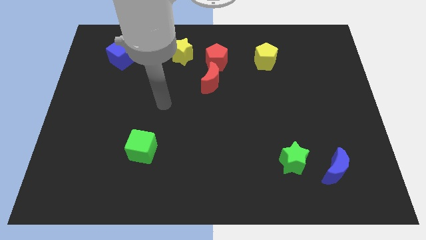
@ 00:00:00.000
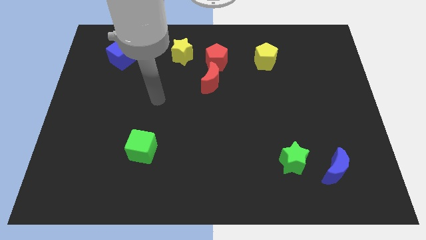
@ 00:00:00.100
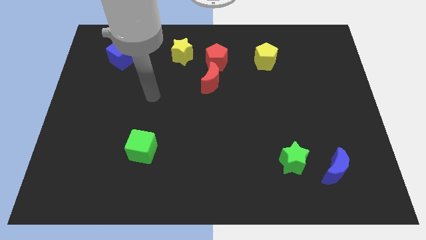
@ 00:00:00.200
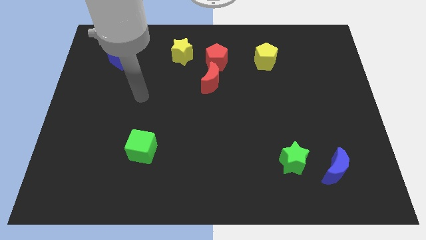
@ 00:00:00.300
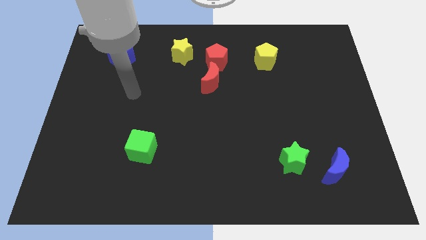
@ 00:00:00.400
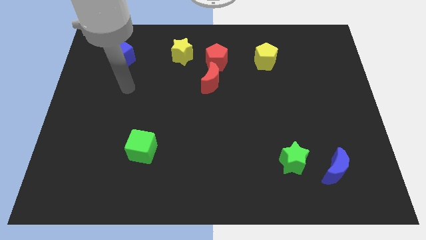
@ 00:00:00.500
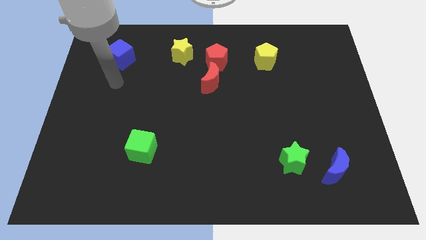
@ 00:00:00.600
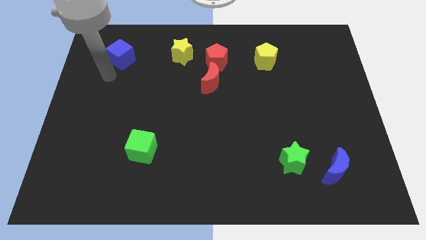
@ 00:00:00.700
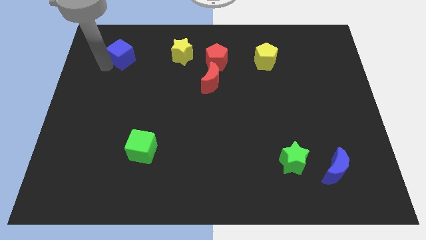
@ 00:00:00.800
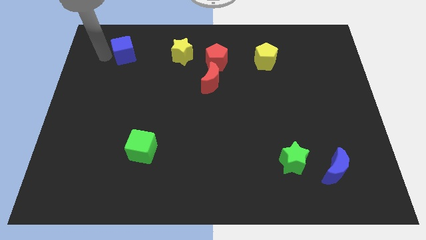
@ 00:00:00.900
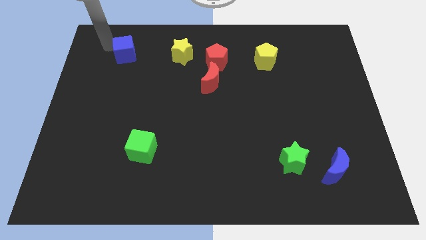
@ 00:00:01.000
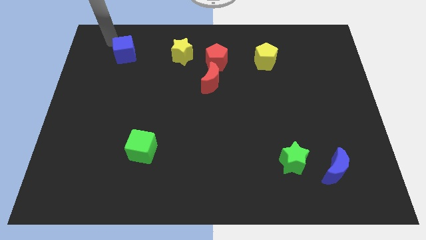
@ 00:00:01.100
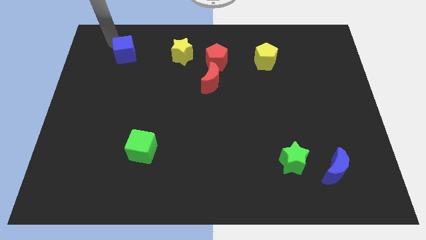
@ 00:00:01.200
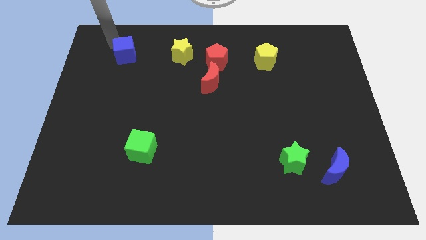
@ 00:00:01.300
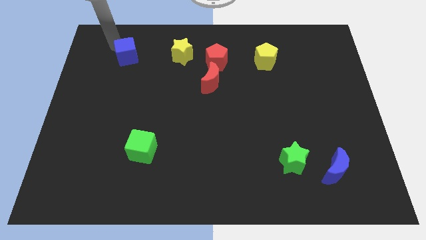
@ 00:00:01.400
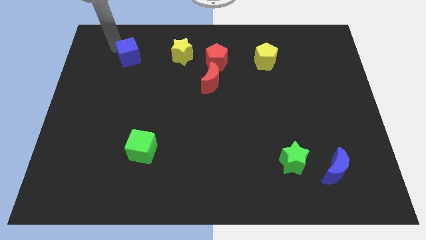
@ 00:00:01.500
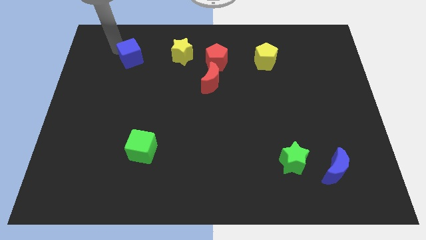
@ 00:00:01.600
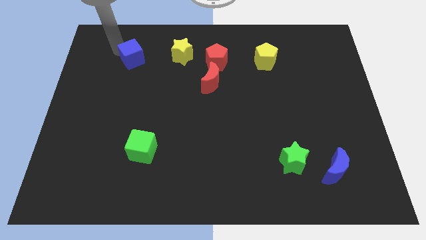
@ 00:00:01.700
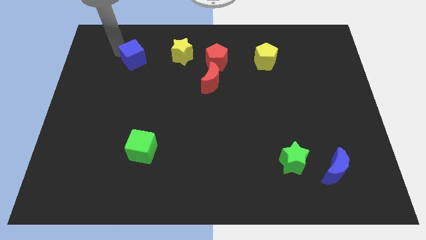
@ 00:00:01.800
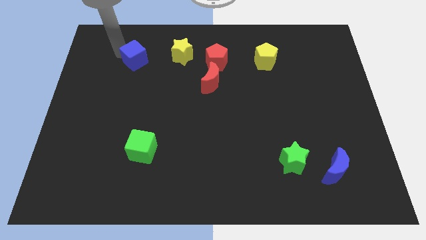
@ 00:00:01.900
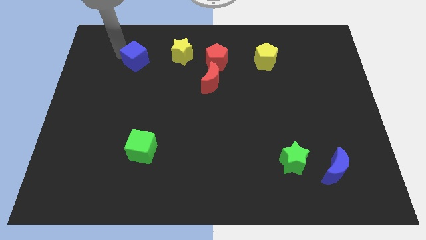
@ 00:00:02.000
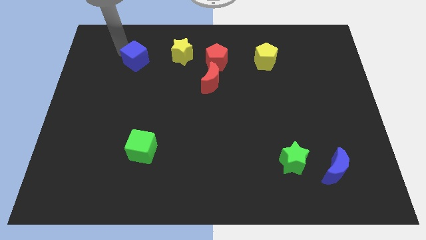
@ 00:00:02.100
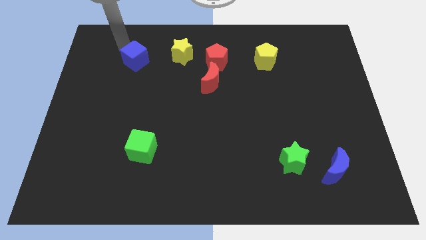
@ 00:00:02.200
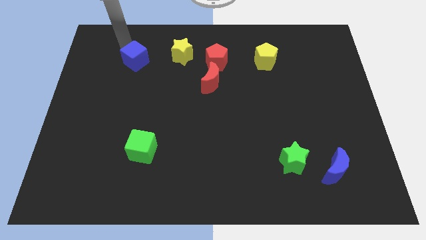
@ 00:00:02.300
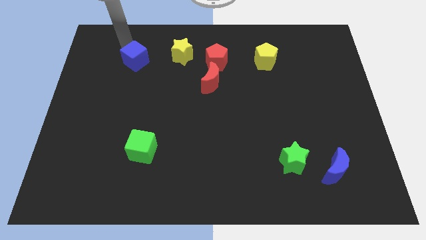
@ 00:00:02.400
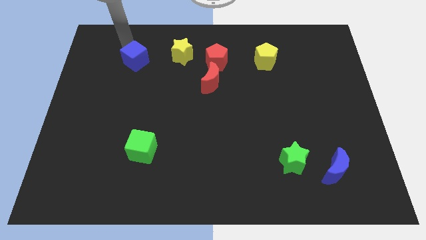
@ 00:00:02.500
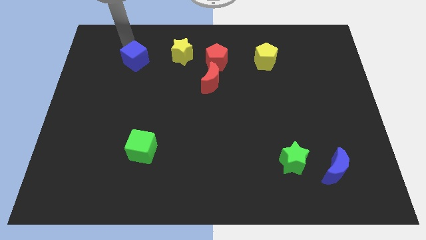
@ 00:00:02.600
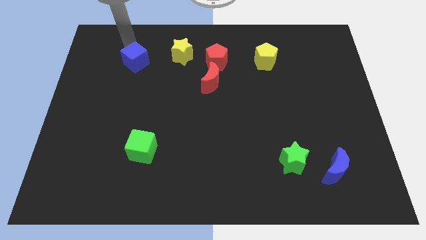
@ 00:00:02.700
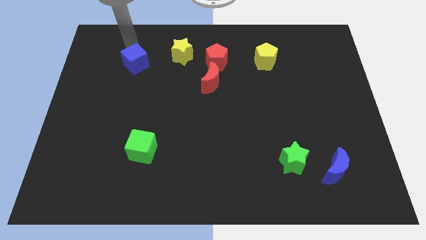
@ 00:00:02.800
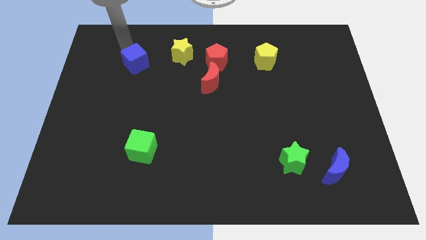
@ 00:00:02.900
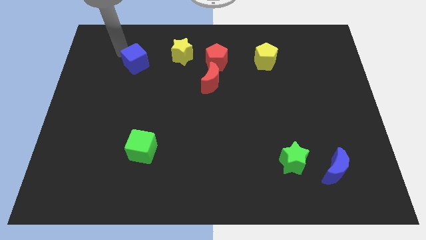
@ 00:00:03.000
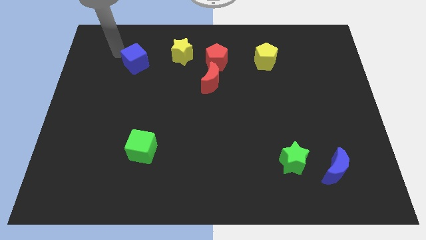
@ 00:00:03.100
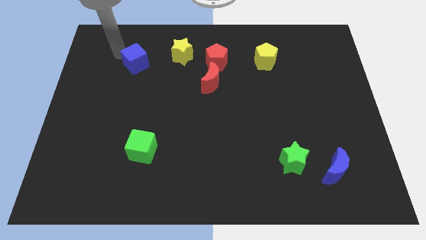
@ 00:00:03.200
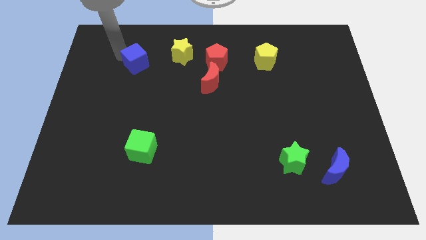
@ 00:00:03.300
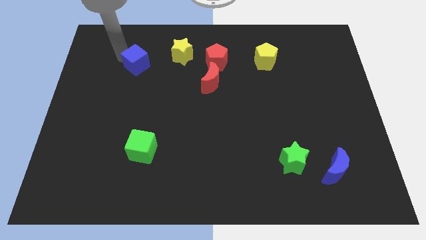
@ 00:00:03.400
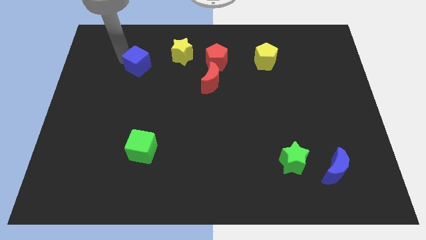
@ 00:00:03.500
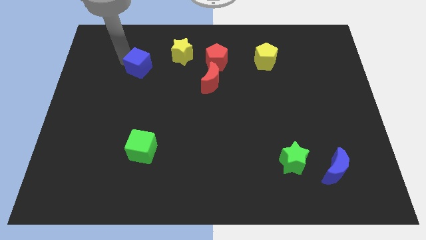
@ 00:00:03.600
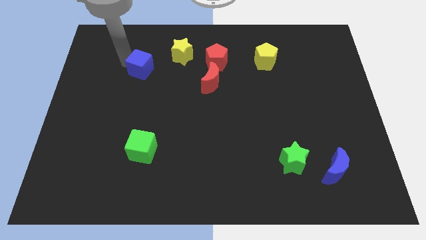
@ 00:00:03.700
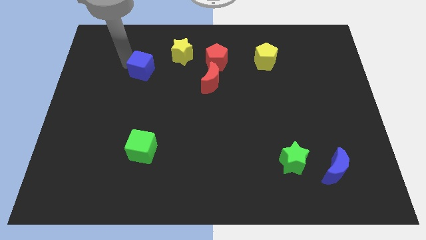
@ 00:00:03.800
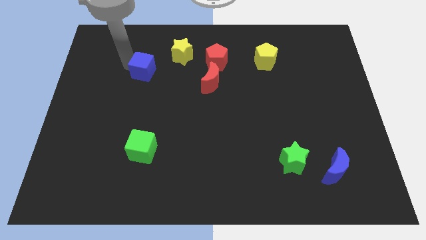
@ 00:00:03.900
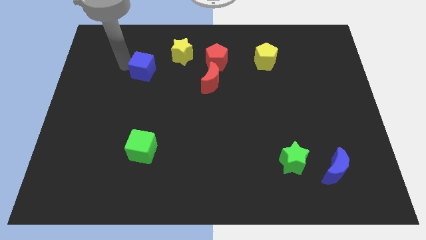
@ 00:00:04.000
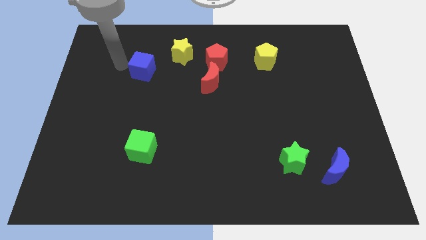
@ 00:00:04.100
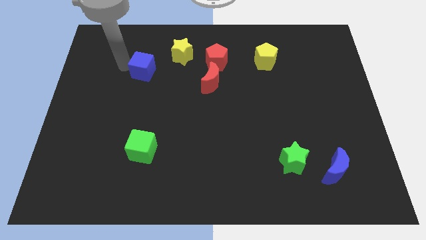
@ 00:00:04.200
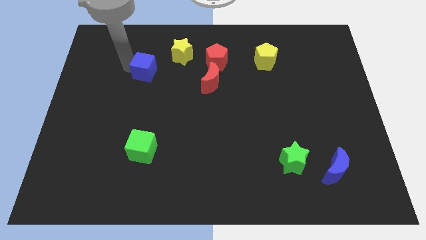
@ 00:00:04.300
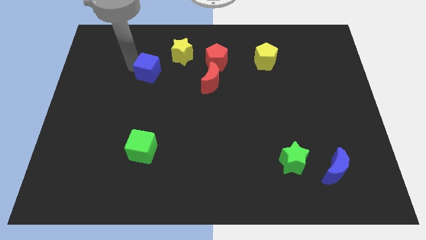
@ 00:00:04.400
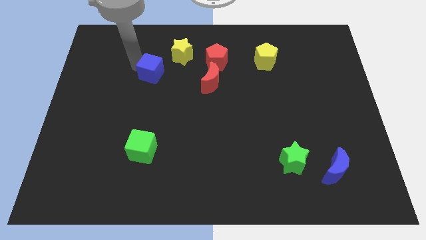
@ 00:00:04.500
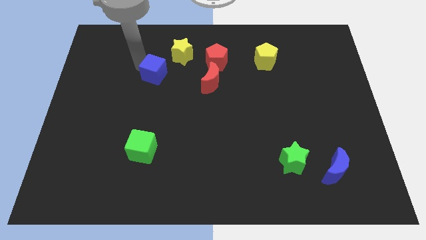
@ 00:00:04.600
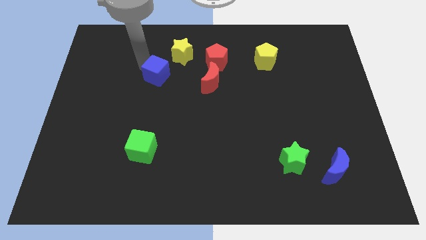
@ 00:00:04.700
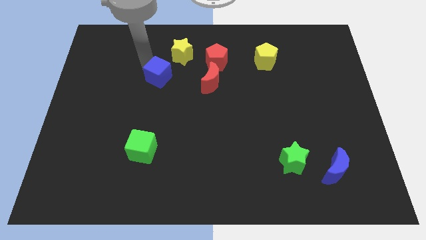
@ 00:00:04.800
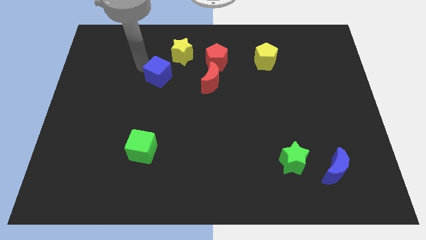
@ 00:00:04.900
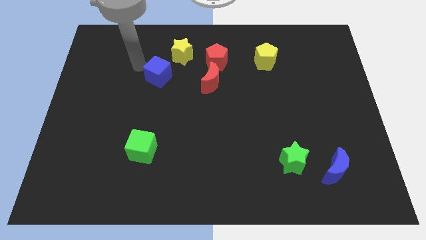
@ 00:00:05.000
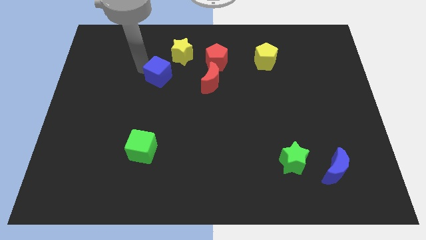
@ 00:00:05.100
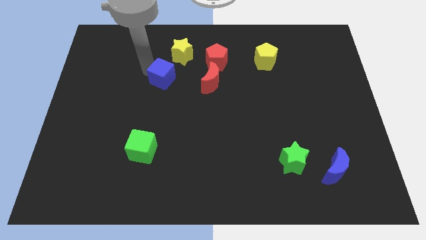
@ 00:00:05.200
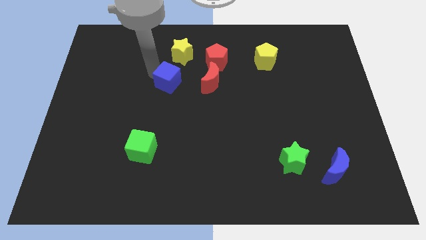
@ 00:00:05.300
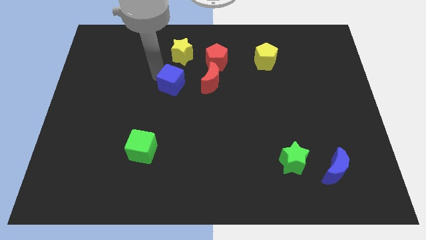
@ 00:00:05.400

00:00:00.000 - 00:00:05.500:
move the blue cube to the middle
